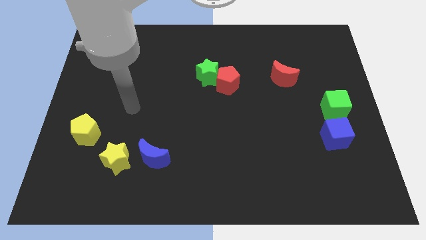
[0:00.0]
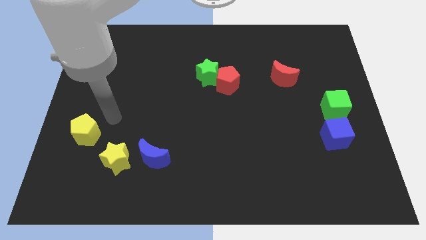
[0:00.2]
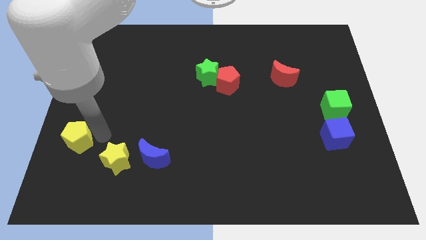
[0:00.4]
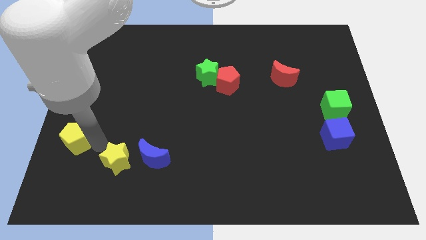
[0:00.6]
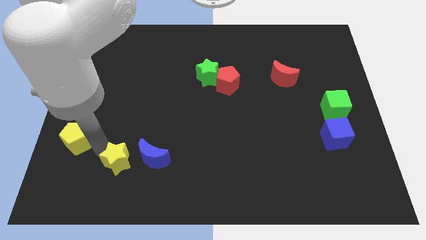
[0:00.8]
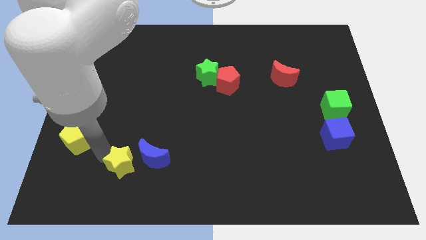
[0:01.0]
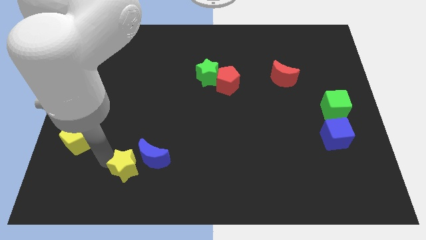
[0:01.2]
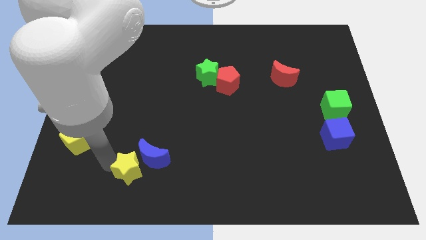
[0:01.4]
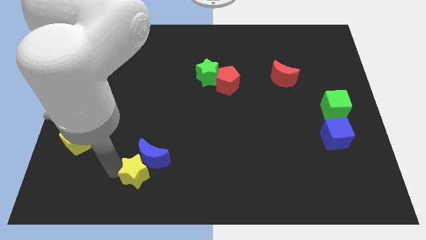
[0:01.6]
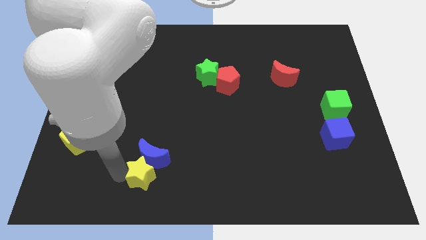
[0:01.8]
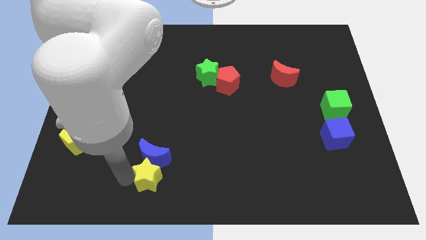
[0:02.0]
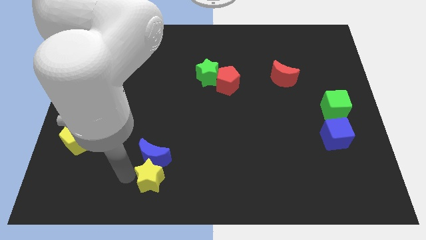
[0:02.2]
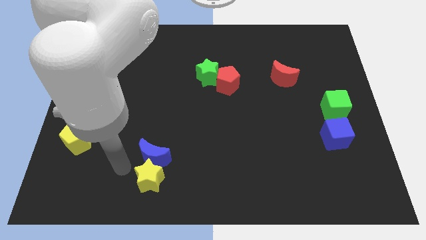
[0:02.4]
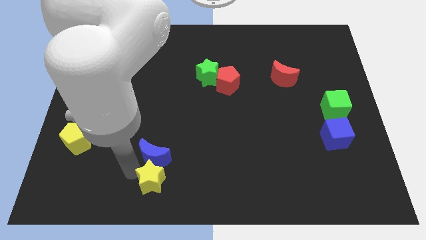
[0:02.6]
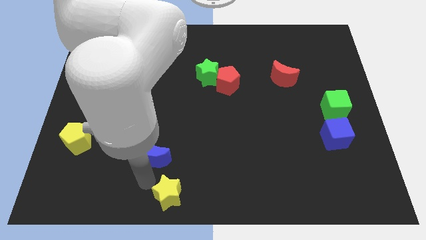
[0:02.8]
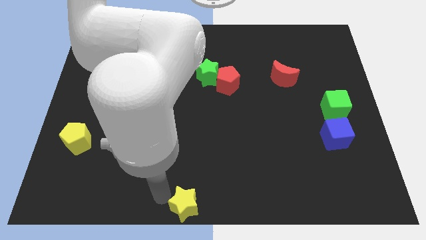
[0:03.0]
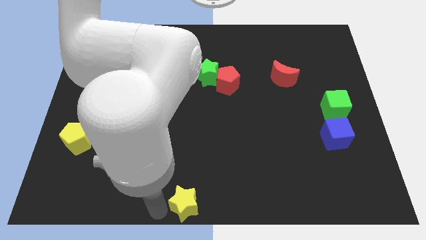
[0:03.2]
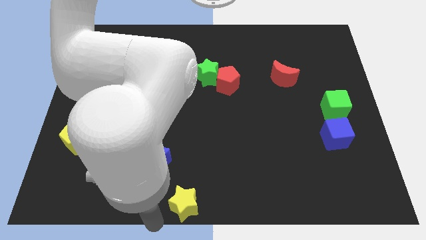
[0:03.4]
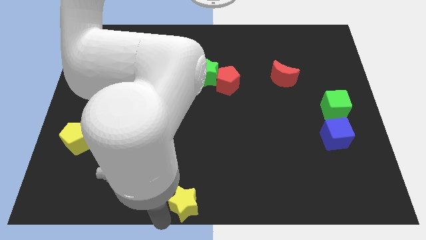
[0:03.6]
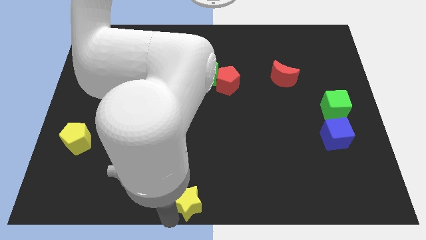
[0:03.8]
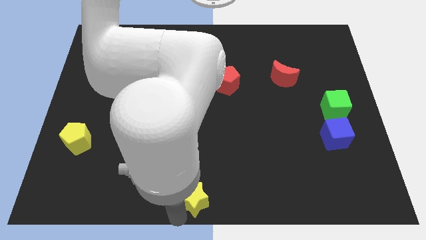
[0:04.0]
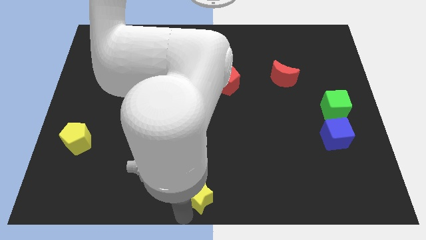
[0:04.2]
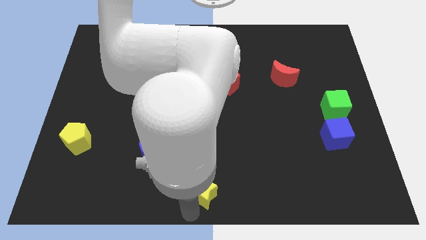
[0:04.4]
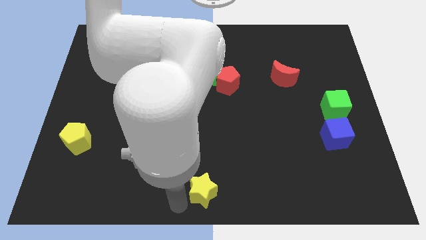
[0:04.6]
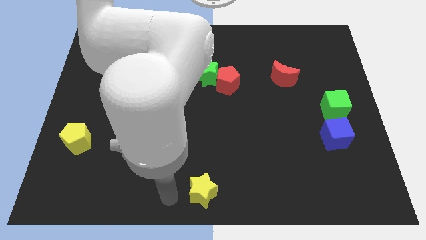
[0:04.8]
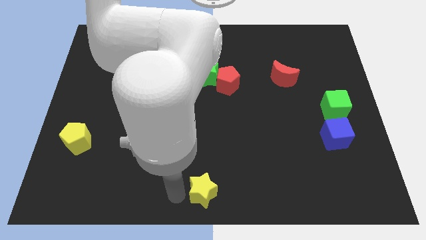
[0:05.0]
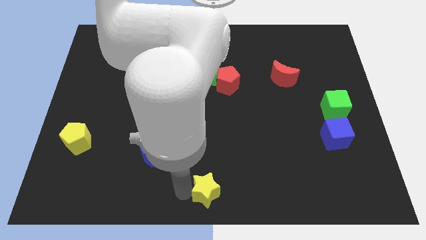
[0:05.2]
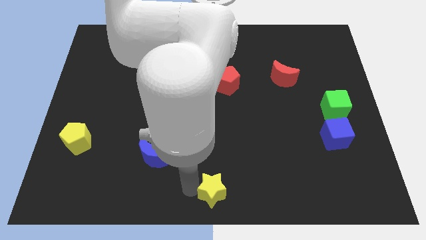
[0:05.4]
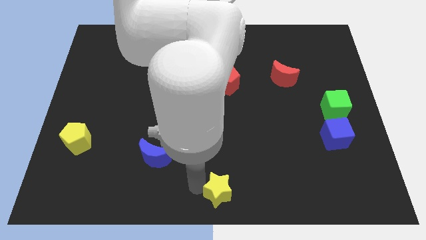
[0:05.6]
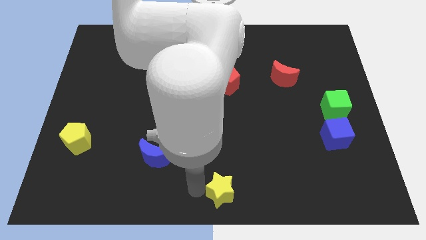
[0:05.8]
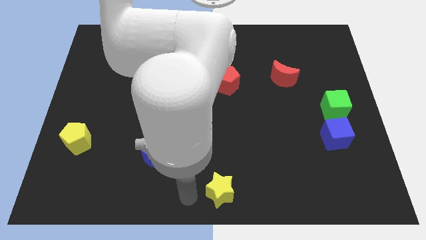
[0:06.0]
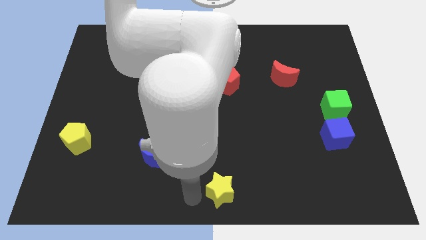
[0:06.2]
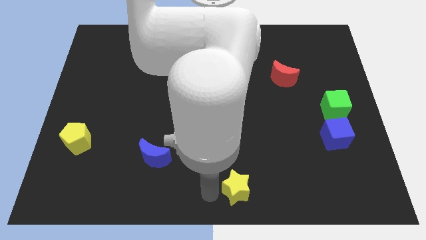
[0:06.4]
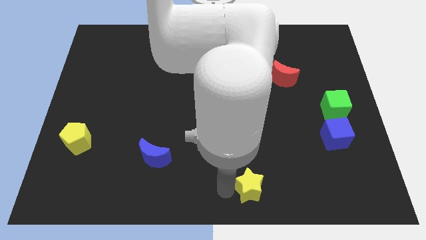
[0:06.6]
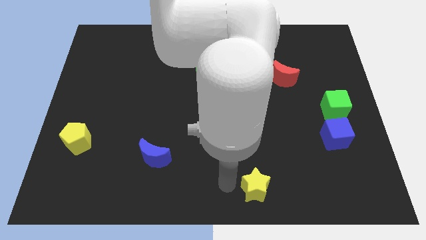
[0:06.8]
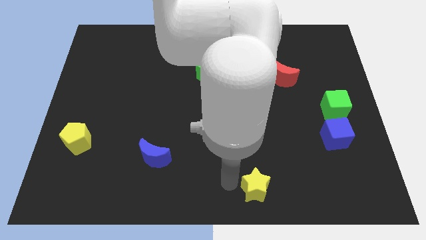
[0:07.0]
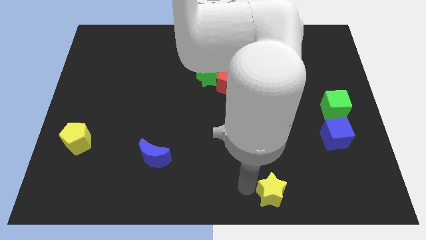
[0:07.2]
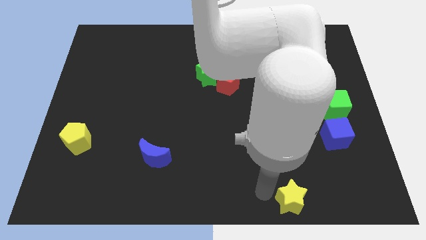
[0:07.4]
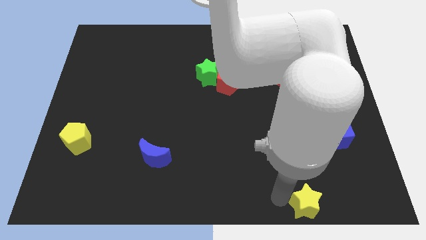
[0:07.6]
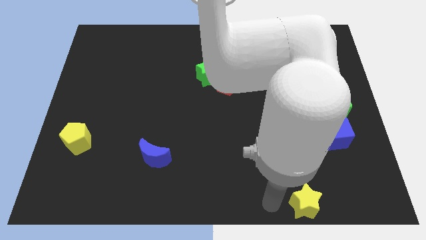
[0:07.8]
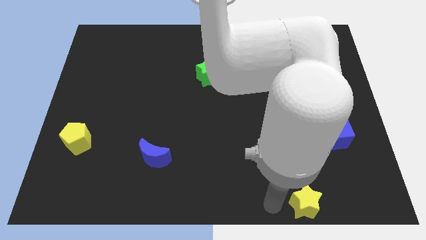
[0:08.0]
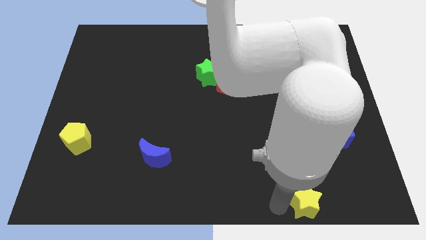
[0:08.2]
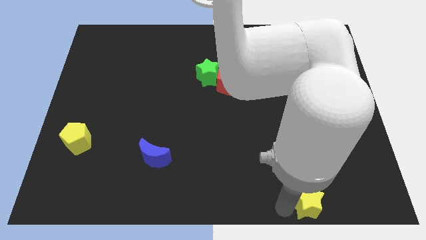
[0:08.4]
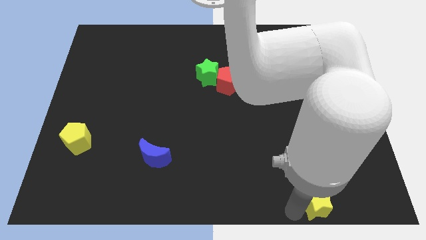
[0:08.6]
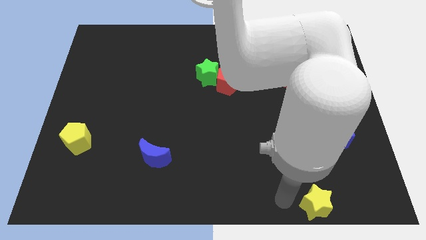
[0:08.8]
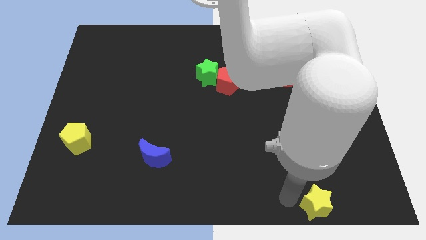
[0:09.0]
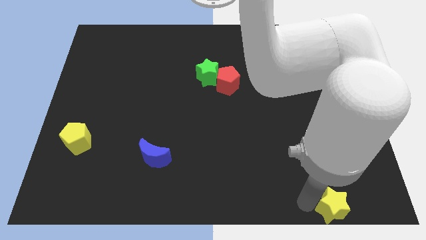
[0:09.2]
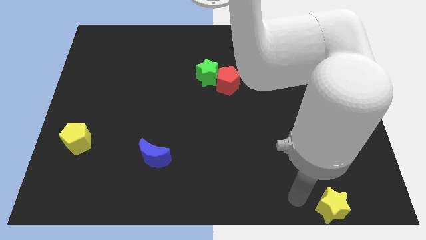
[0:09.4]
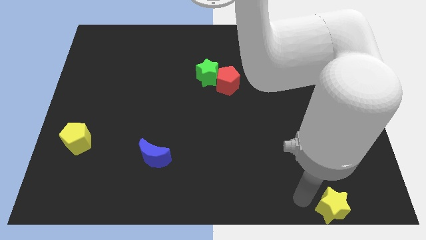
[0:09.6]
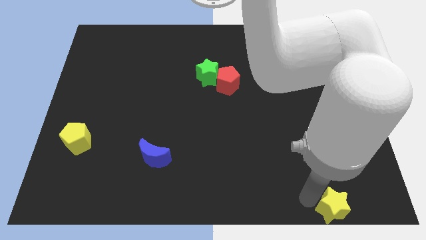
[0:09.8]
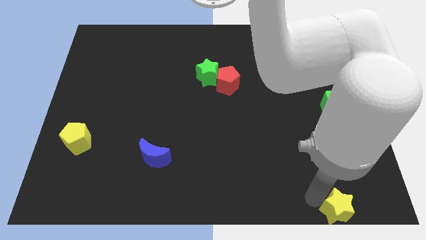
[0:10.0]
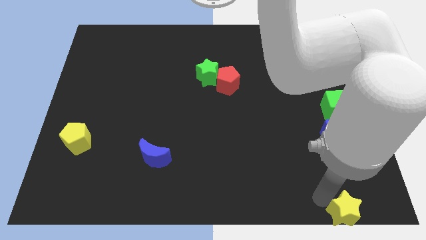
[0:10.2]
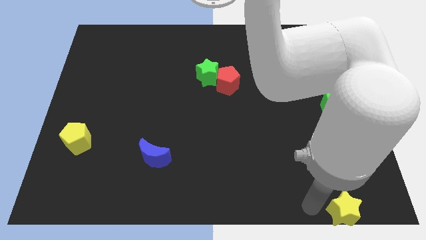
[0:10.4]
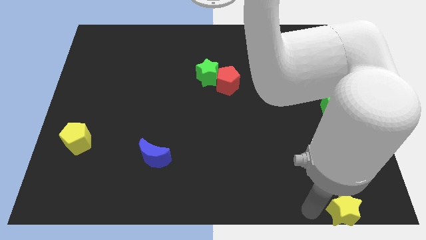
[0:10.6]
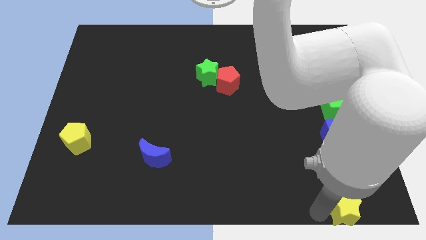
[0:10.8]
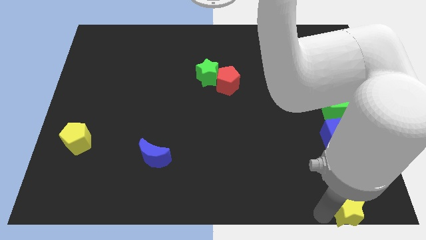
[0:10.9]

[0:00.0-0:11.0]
move the yellow star to the bottom right of the board
